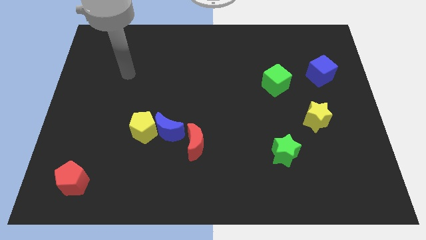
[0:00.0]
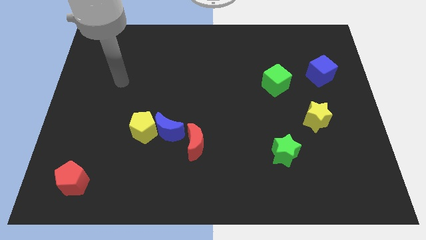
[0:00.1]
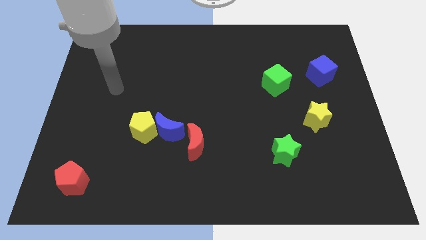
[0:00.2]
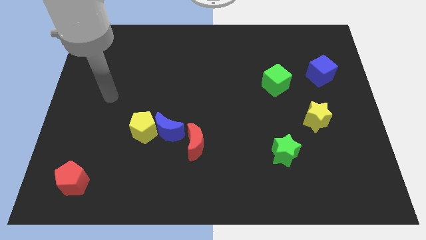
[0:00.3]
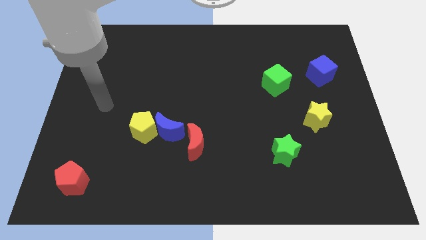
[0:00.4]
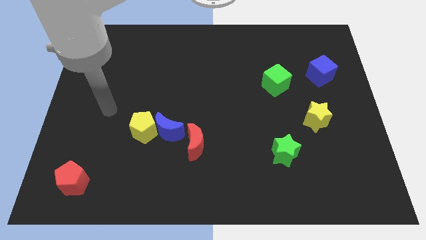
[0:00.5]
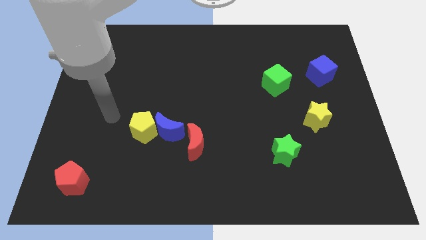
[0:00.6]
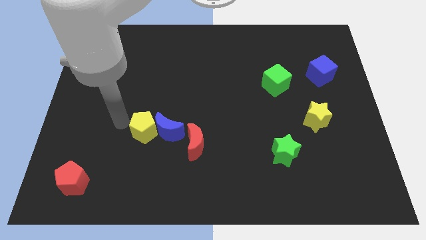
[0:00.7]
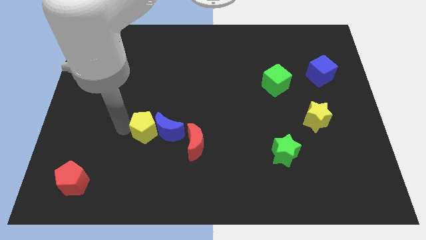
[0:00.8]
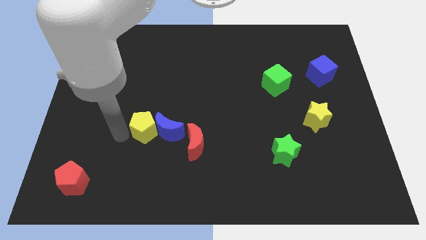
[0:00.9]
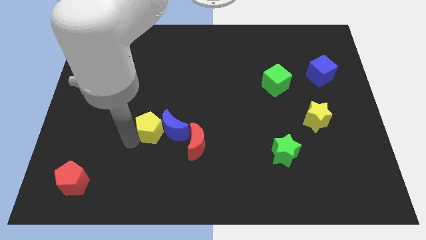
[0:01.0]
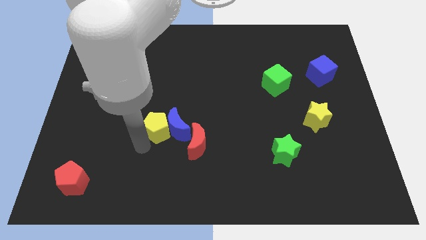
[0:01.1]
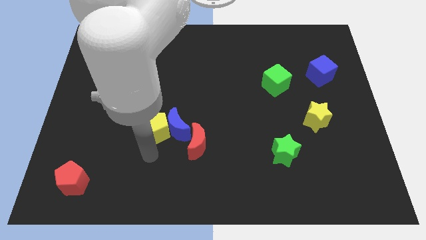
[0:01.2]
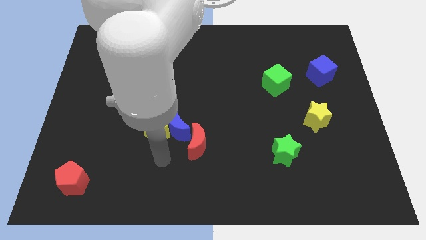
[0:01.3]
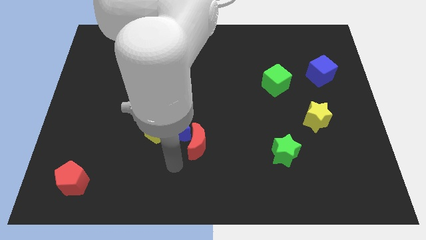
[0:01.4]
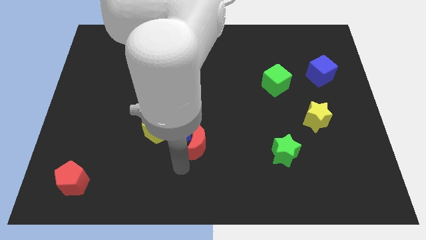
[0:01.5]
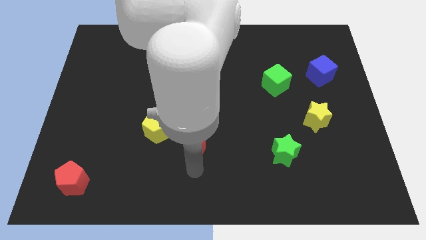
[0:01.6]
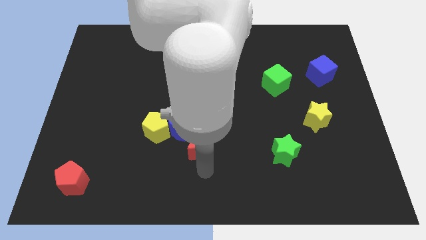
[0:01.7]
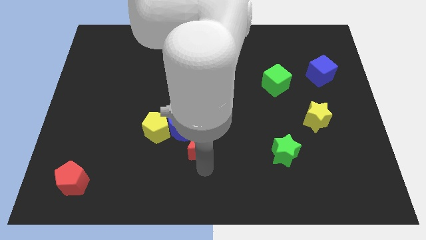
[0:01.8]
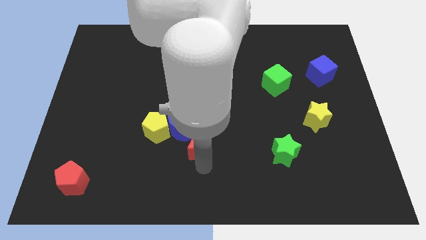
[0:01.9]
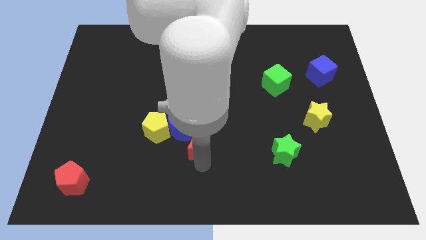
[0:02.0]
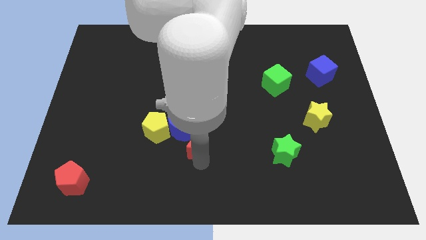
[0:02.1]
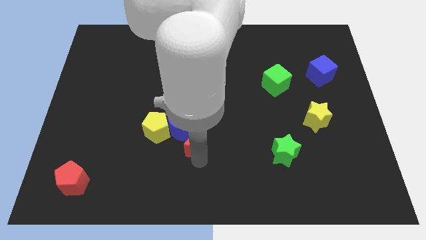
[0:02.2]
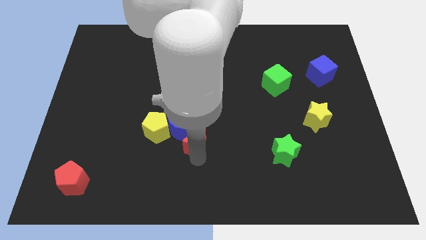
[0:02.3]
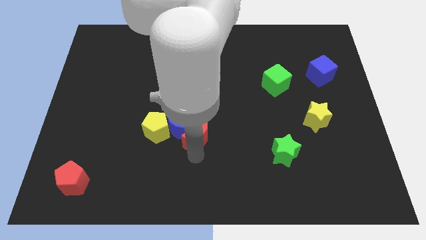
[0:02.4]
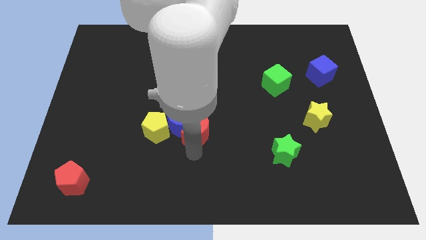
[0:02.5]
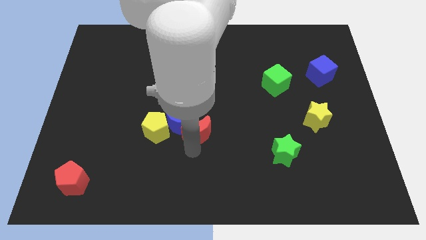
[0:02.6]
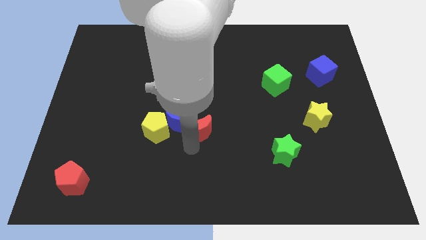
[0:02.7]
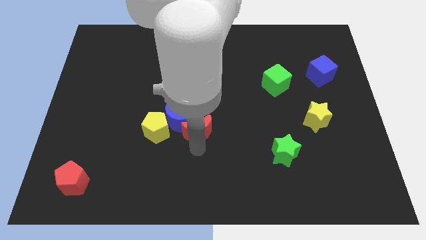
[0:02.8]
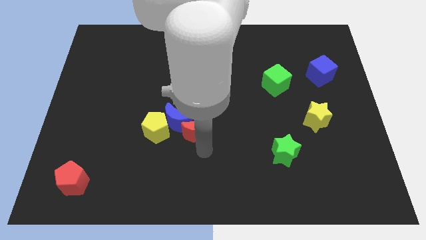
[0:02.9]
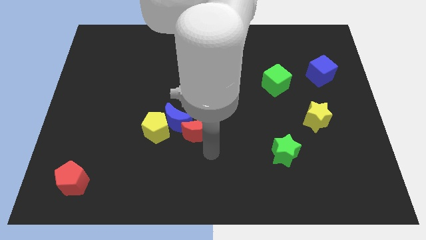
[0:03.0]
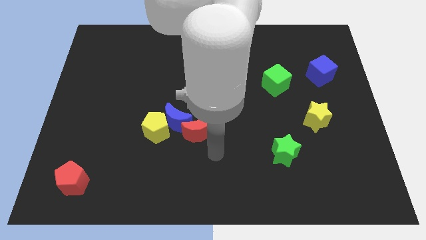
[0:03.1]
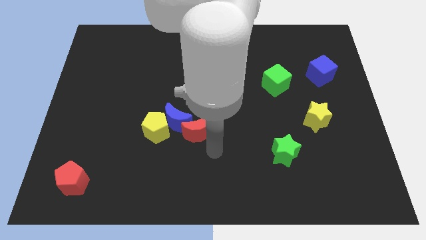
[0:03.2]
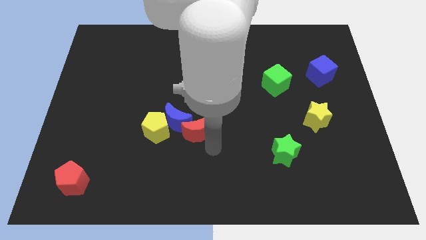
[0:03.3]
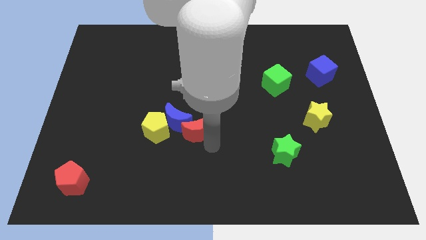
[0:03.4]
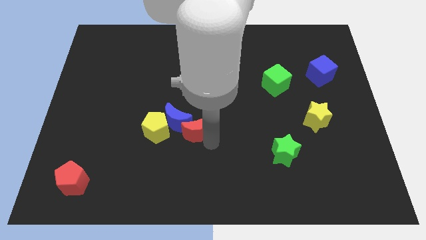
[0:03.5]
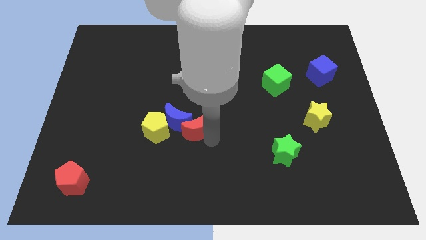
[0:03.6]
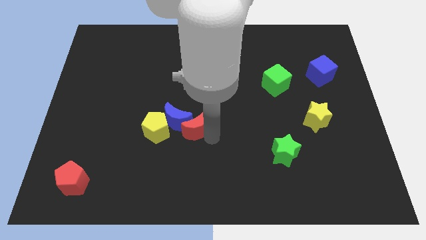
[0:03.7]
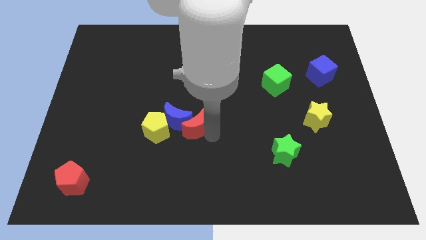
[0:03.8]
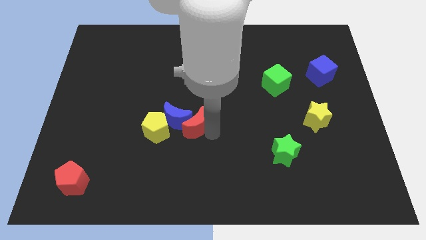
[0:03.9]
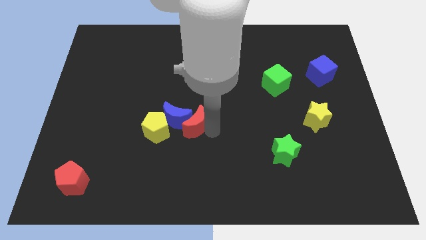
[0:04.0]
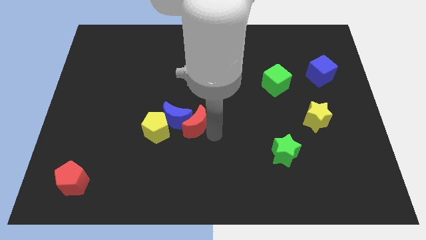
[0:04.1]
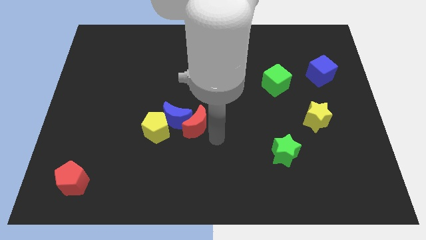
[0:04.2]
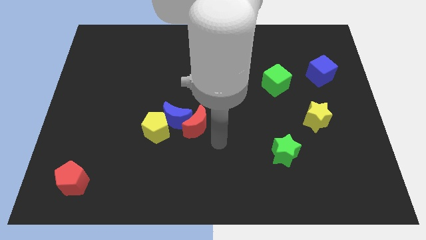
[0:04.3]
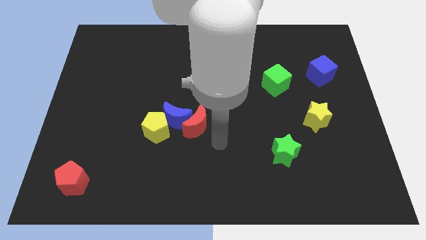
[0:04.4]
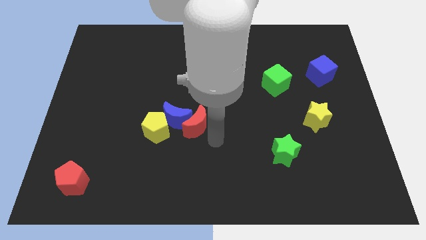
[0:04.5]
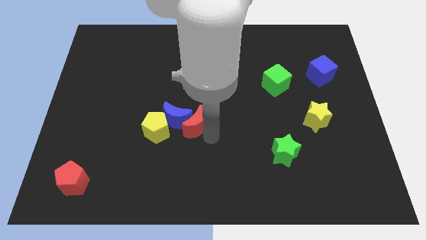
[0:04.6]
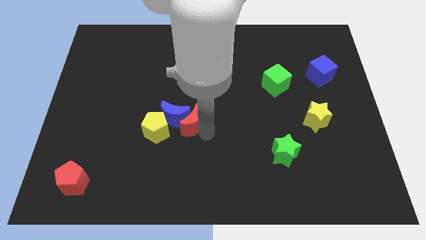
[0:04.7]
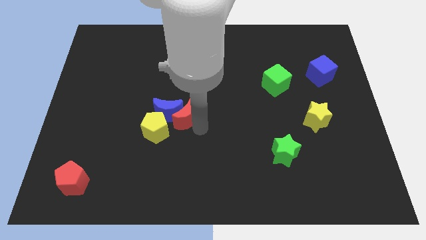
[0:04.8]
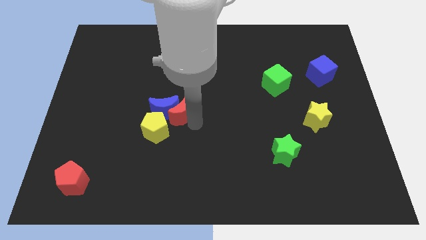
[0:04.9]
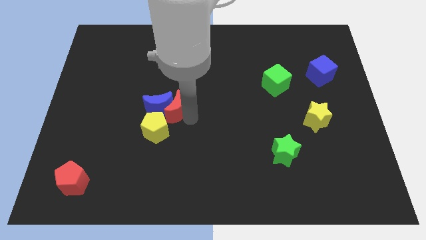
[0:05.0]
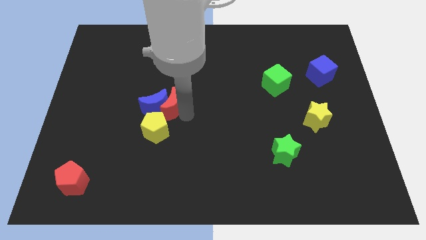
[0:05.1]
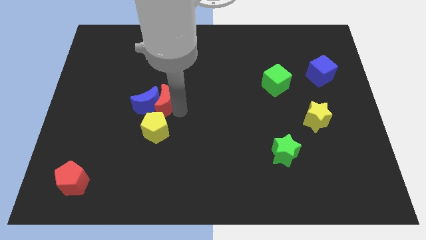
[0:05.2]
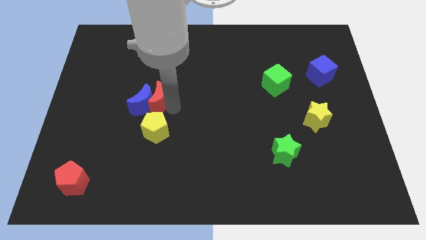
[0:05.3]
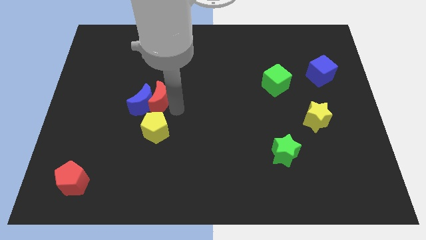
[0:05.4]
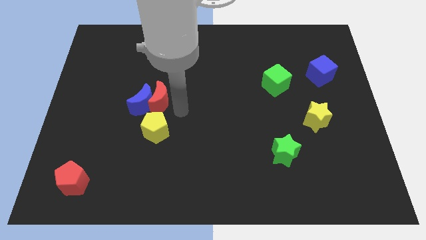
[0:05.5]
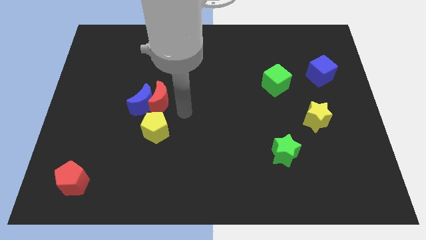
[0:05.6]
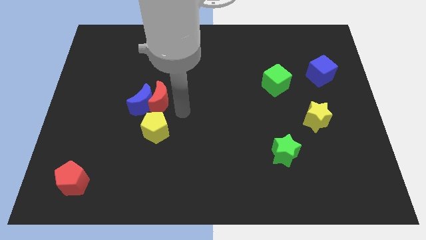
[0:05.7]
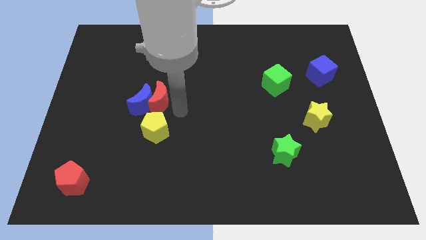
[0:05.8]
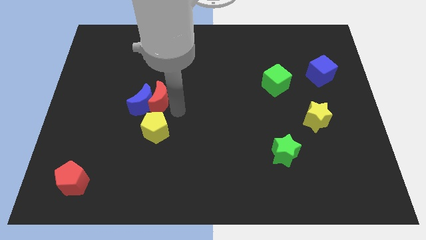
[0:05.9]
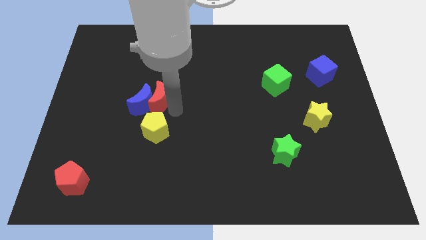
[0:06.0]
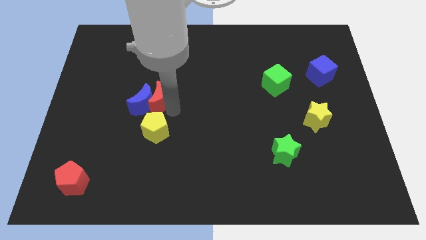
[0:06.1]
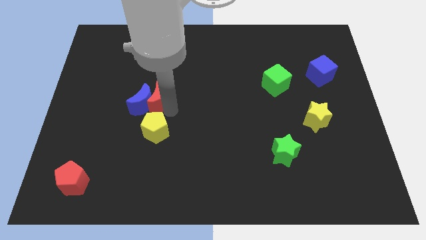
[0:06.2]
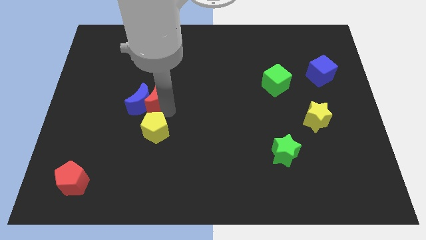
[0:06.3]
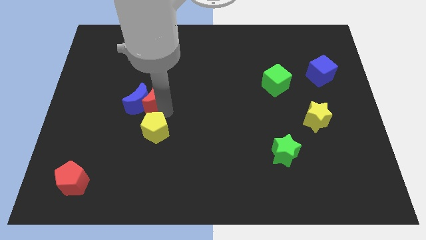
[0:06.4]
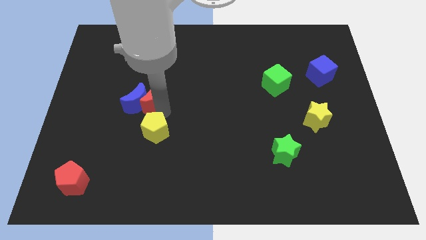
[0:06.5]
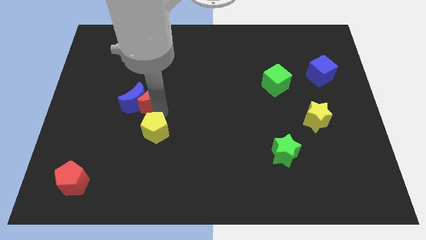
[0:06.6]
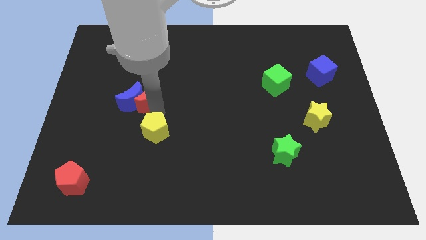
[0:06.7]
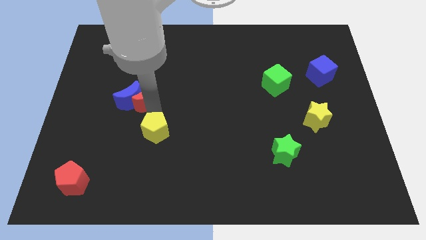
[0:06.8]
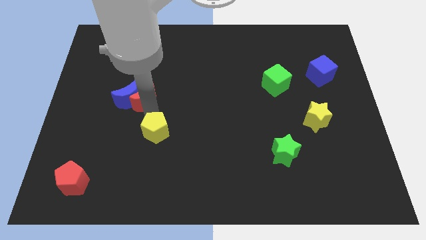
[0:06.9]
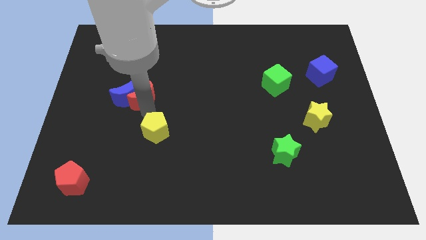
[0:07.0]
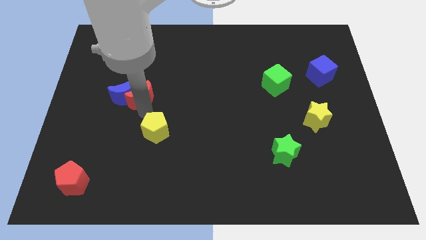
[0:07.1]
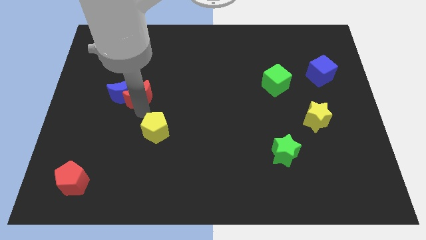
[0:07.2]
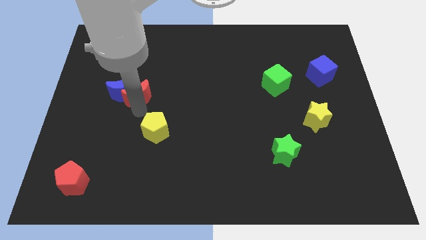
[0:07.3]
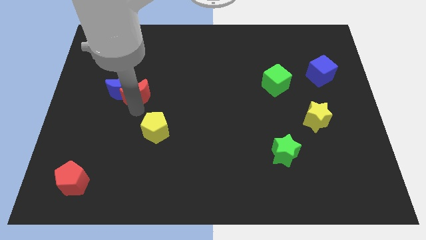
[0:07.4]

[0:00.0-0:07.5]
push the red moon upwards and left diagonally

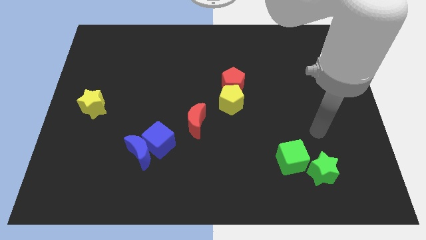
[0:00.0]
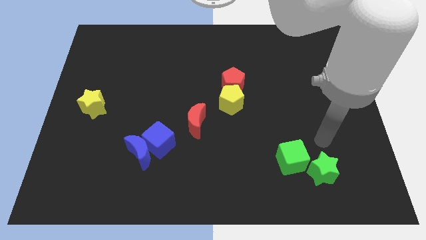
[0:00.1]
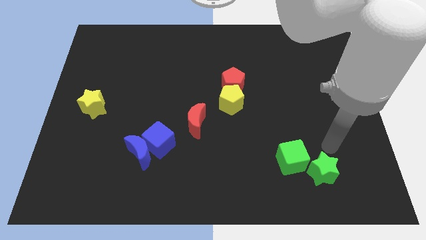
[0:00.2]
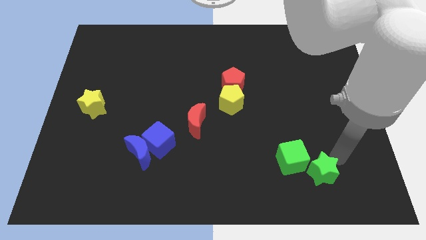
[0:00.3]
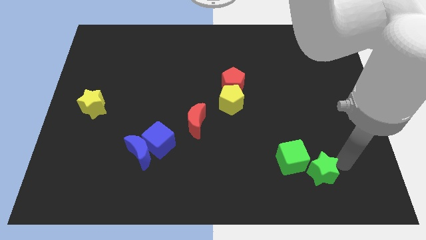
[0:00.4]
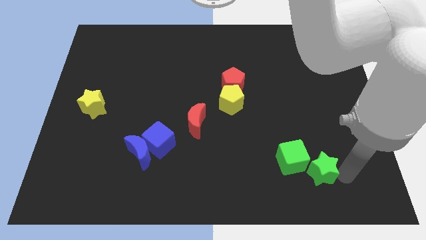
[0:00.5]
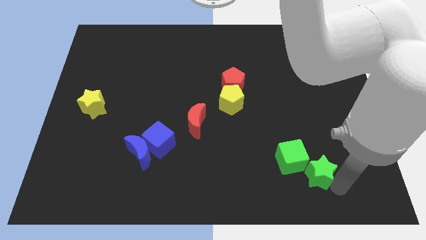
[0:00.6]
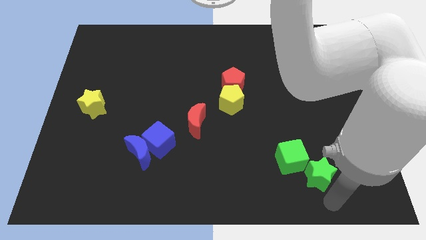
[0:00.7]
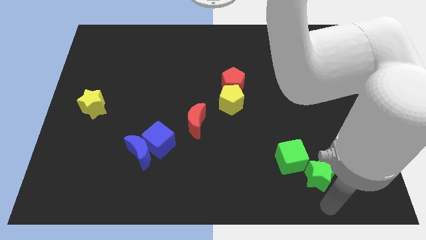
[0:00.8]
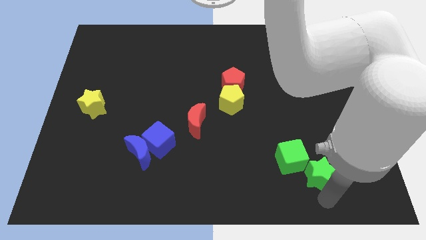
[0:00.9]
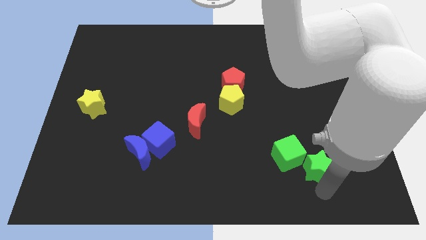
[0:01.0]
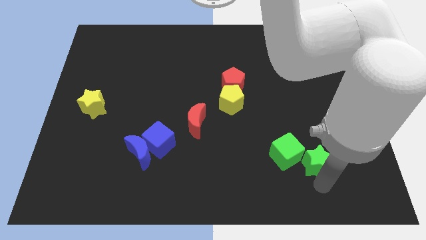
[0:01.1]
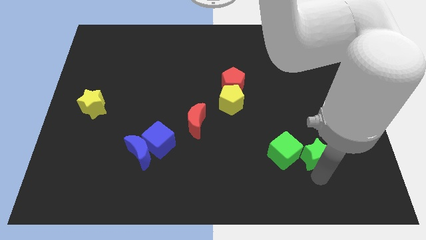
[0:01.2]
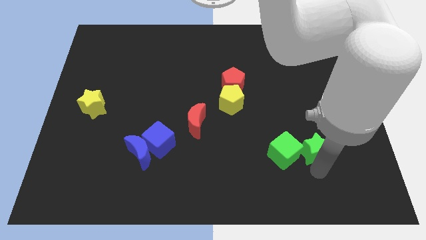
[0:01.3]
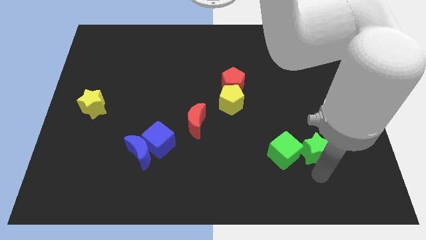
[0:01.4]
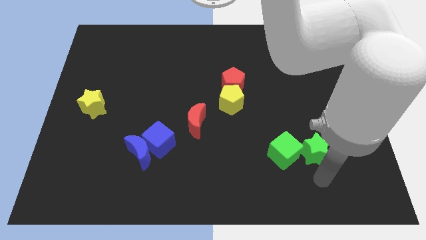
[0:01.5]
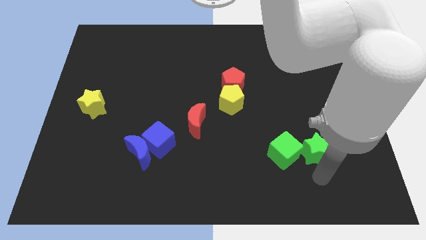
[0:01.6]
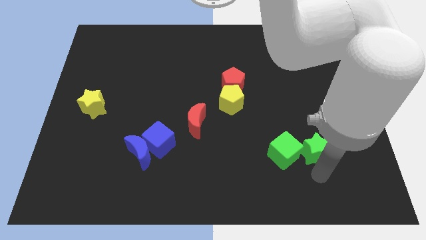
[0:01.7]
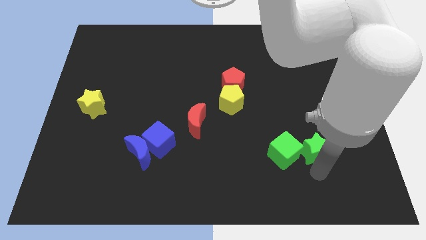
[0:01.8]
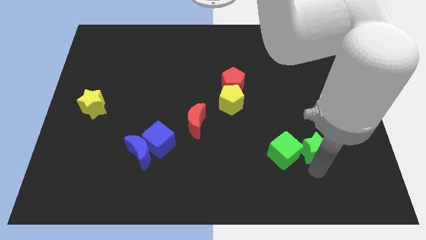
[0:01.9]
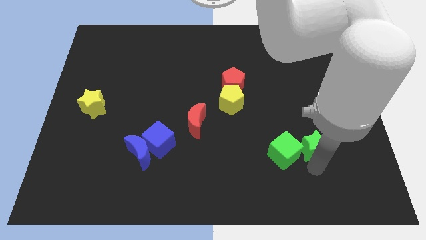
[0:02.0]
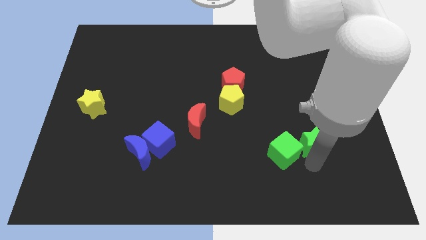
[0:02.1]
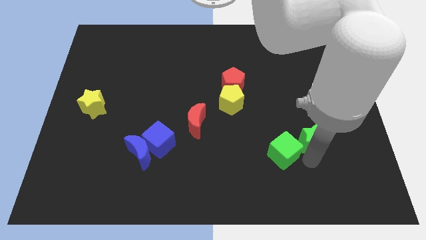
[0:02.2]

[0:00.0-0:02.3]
move the green star upwards a little
